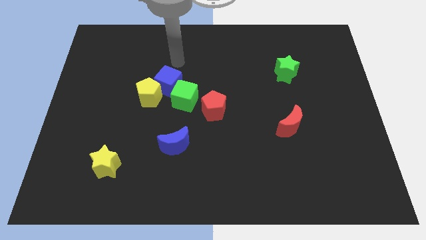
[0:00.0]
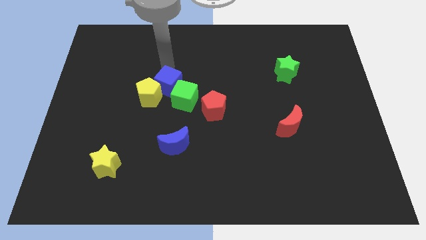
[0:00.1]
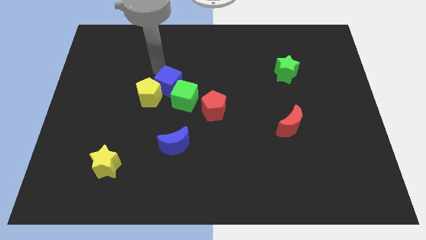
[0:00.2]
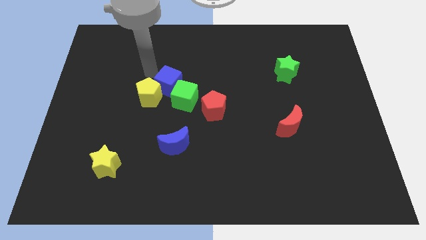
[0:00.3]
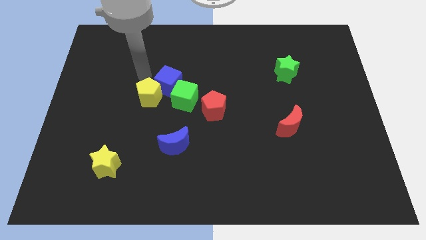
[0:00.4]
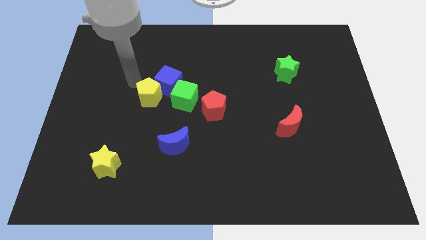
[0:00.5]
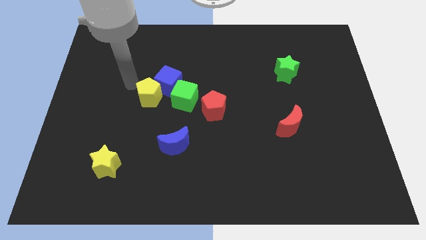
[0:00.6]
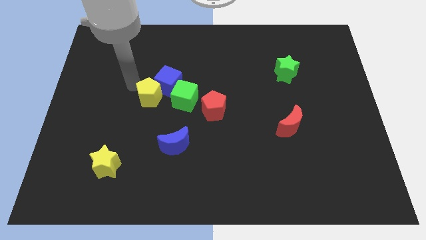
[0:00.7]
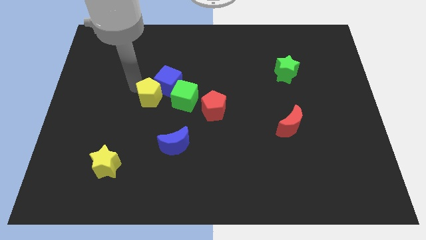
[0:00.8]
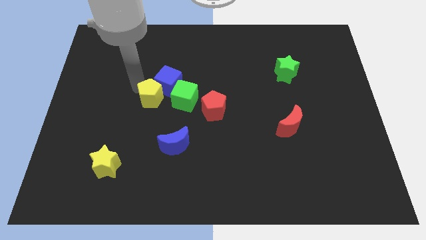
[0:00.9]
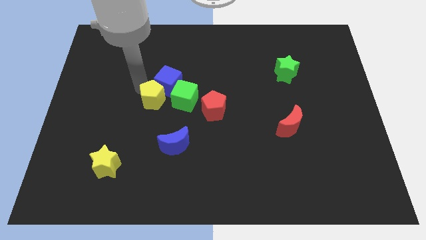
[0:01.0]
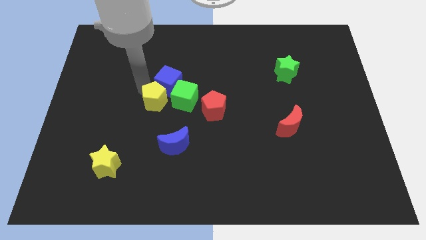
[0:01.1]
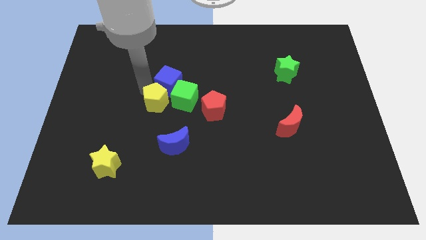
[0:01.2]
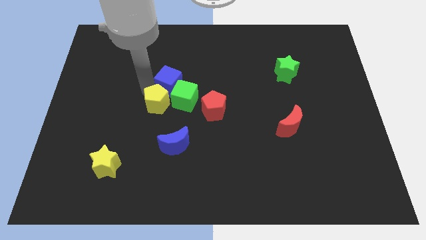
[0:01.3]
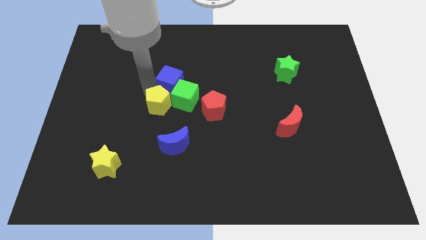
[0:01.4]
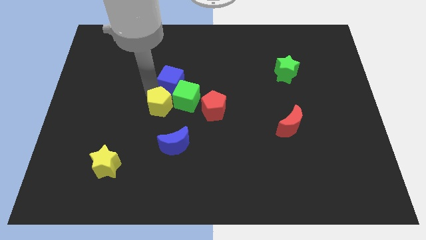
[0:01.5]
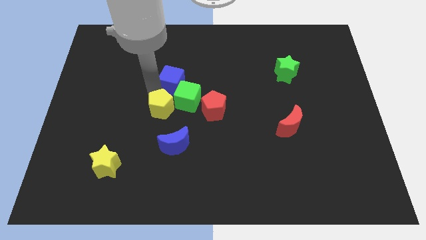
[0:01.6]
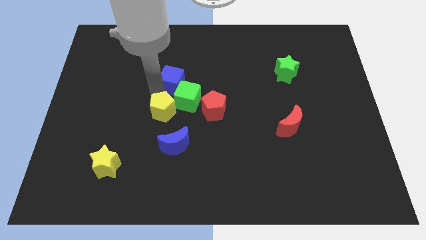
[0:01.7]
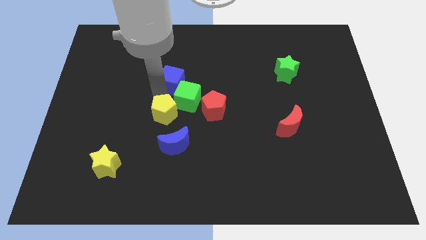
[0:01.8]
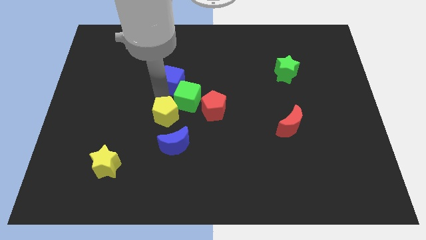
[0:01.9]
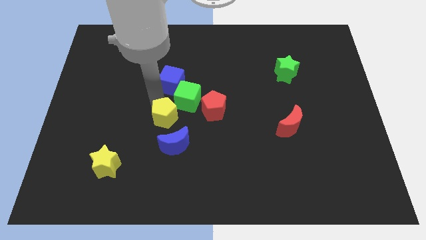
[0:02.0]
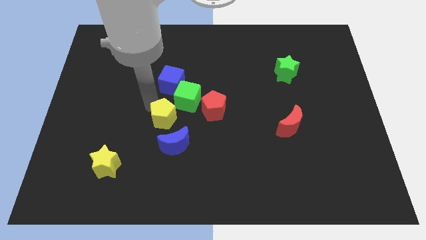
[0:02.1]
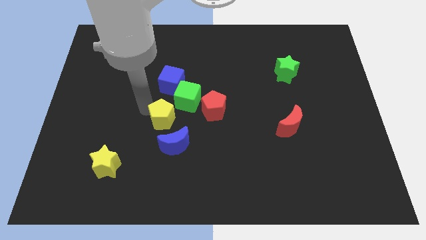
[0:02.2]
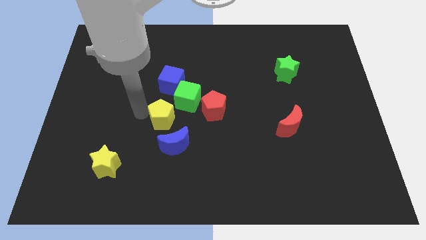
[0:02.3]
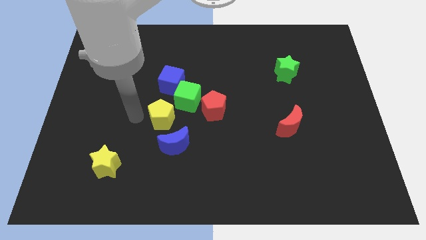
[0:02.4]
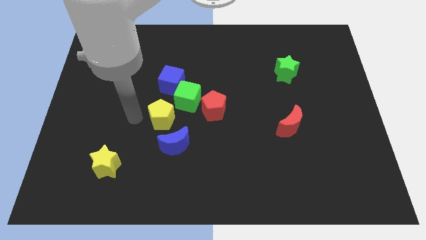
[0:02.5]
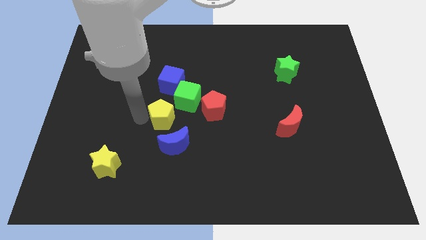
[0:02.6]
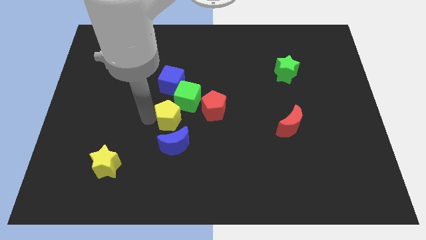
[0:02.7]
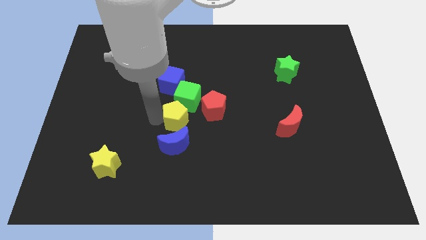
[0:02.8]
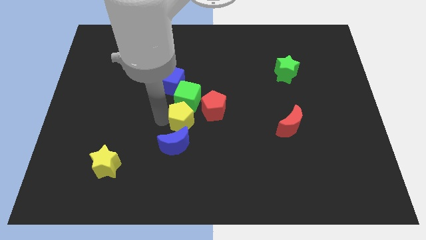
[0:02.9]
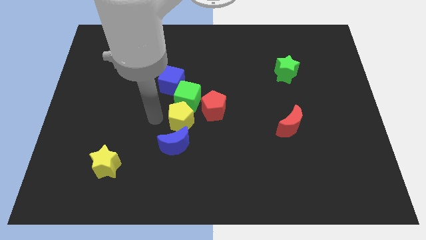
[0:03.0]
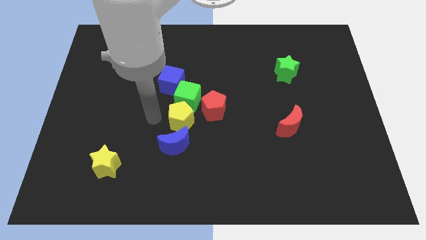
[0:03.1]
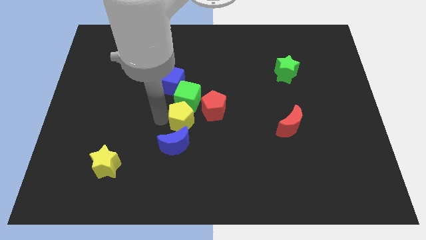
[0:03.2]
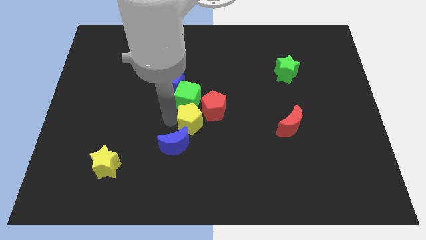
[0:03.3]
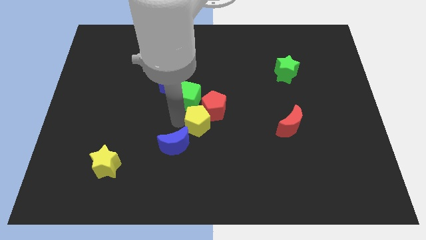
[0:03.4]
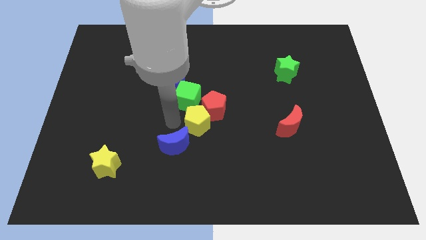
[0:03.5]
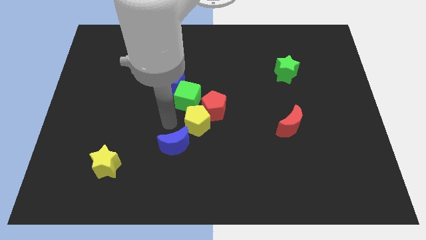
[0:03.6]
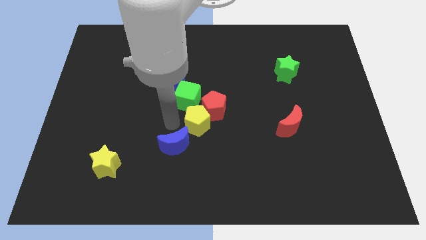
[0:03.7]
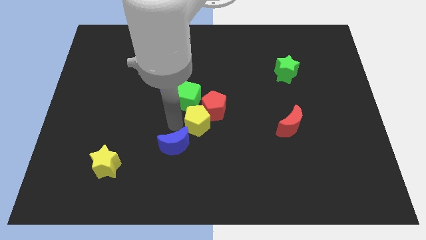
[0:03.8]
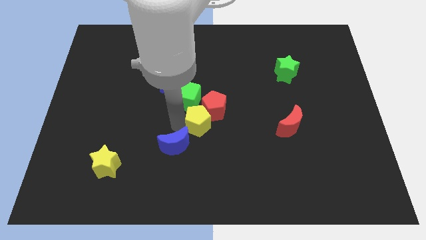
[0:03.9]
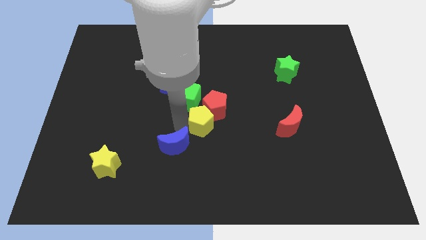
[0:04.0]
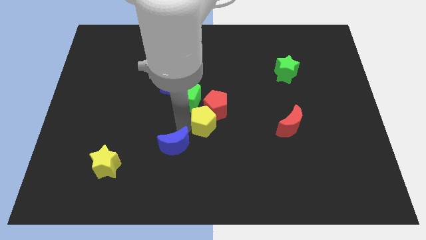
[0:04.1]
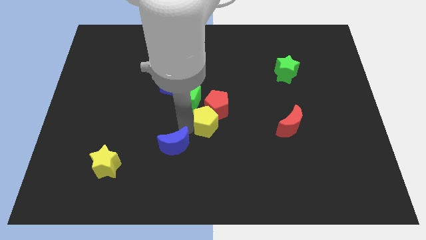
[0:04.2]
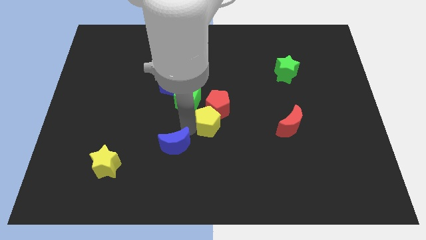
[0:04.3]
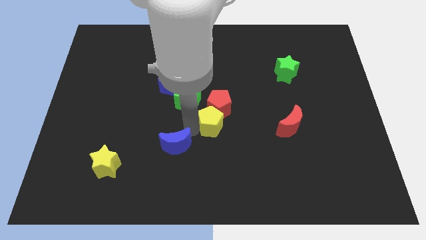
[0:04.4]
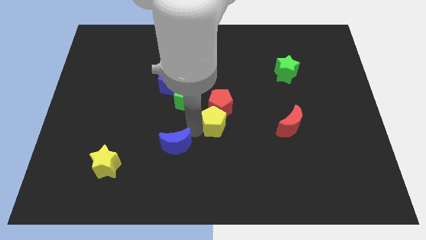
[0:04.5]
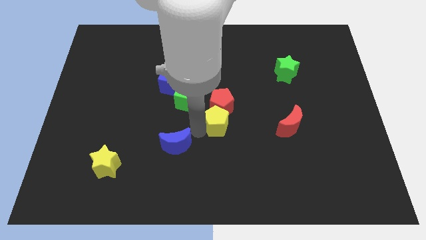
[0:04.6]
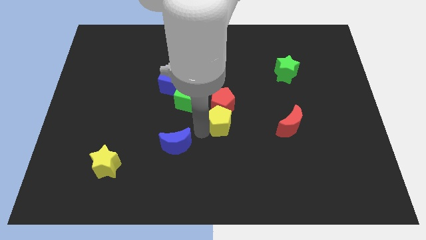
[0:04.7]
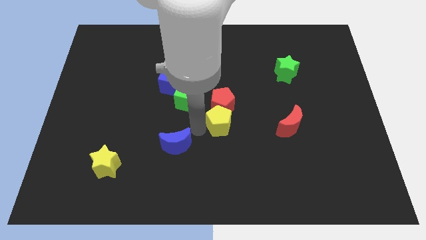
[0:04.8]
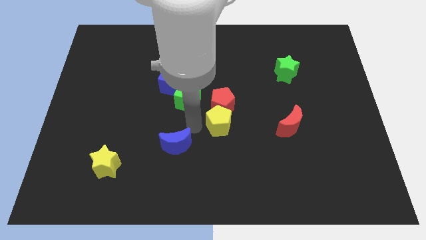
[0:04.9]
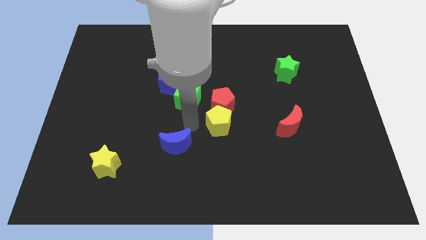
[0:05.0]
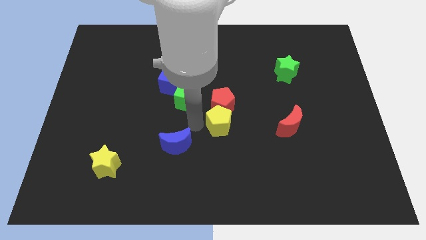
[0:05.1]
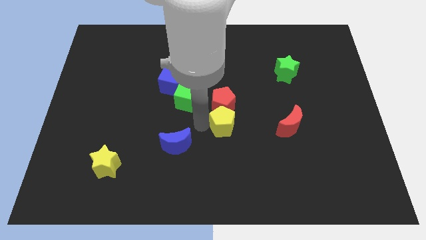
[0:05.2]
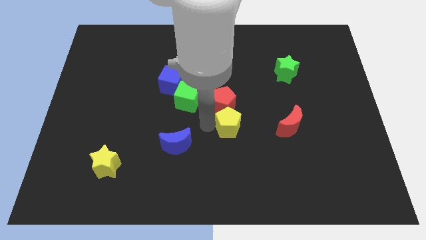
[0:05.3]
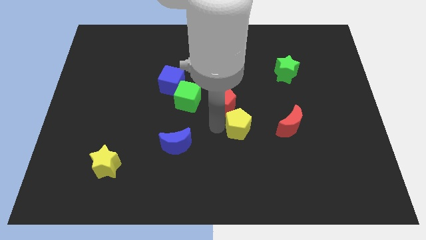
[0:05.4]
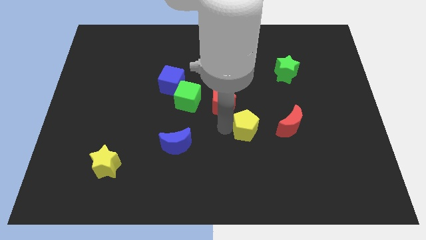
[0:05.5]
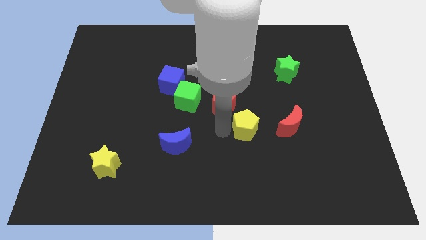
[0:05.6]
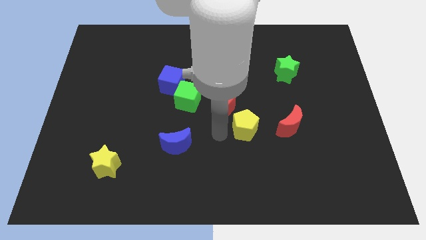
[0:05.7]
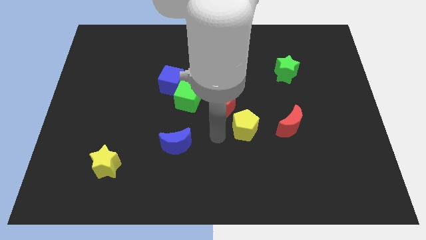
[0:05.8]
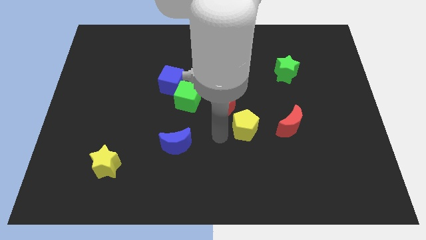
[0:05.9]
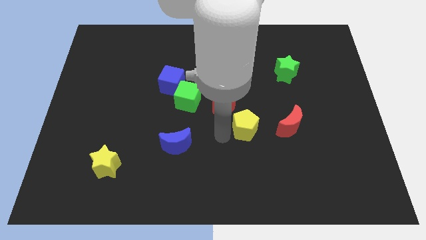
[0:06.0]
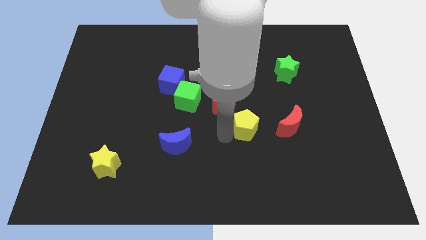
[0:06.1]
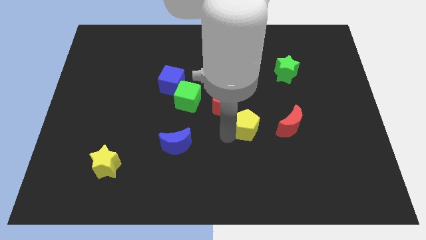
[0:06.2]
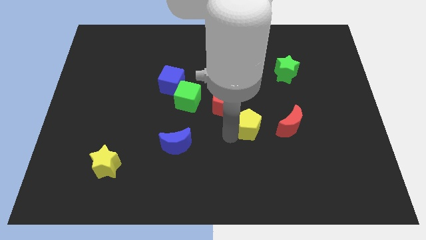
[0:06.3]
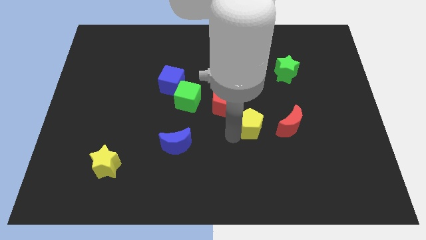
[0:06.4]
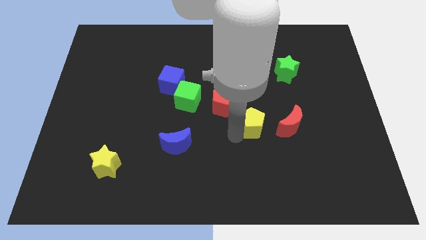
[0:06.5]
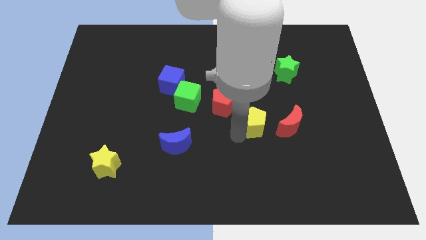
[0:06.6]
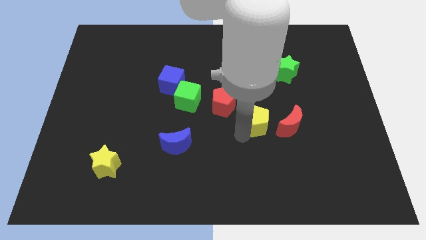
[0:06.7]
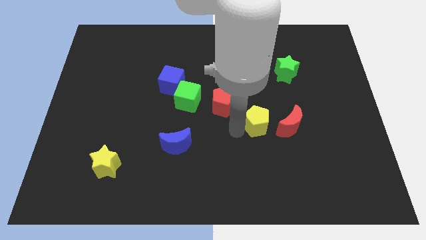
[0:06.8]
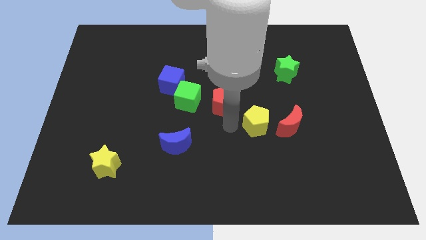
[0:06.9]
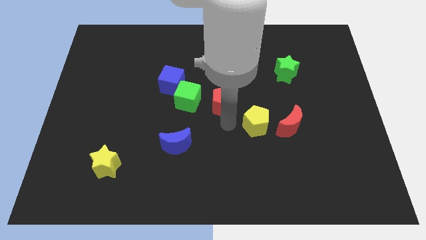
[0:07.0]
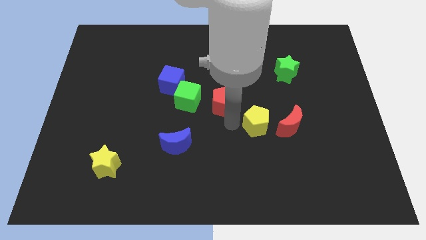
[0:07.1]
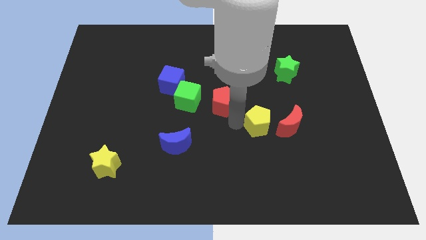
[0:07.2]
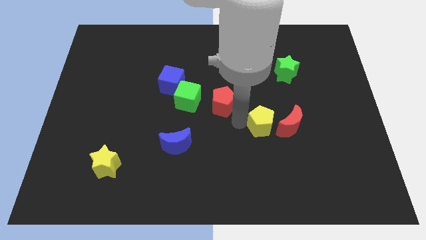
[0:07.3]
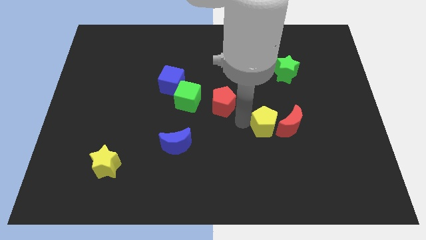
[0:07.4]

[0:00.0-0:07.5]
move the yellow pentagon towards the red moon
